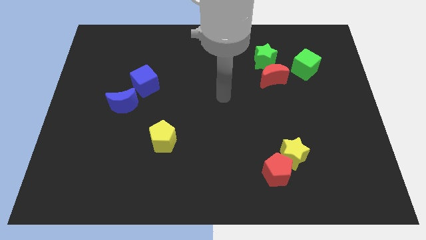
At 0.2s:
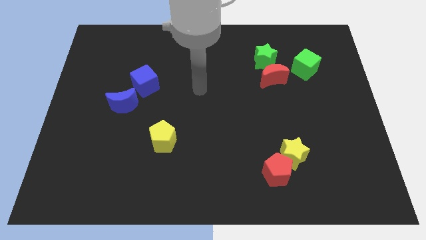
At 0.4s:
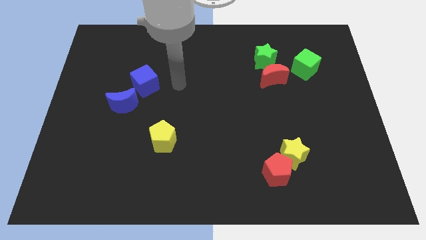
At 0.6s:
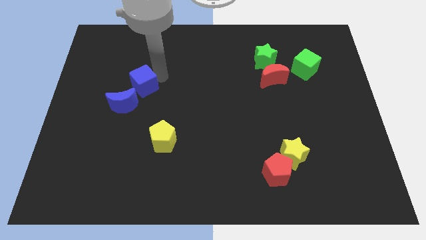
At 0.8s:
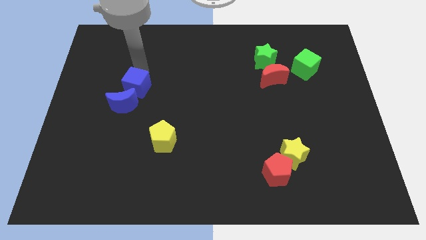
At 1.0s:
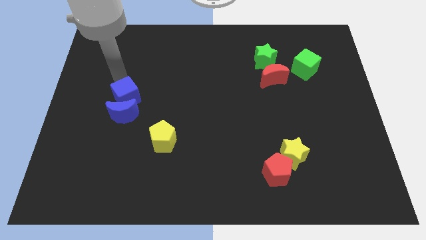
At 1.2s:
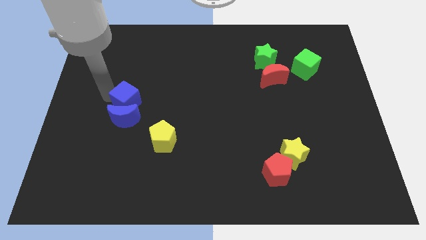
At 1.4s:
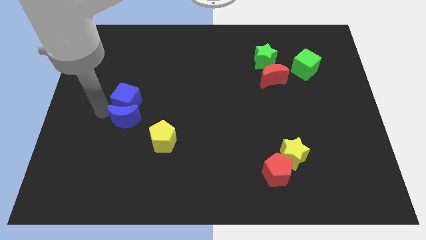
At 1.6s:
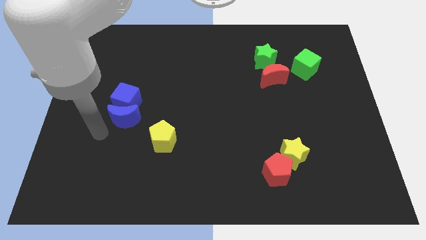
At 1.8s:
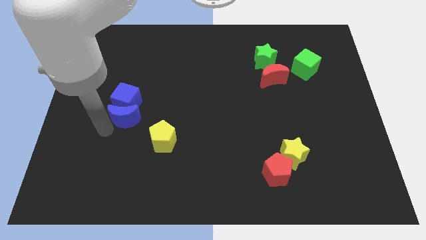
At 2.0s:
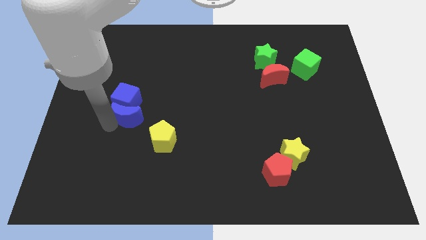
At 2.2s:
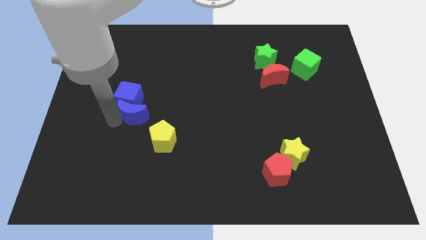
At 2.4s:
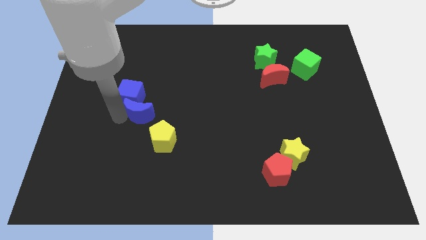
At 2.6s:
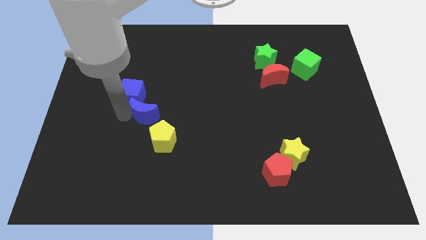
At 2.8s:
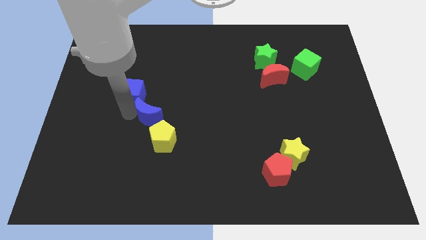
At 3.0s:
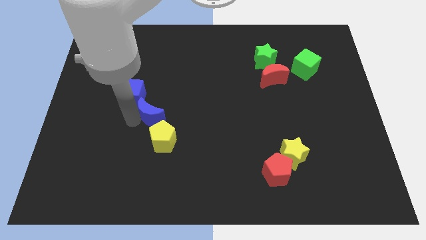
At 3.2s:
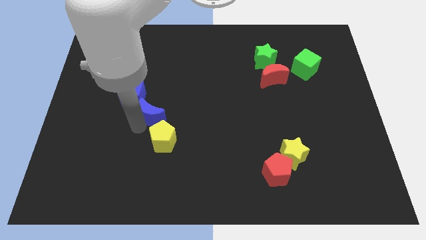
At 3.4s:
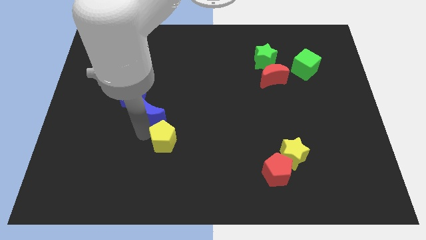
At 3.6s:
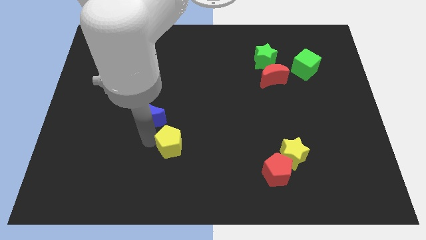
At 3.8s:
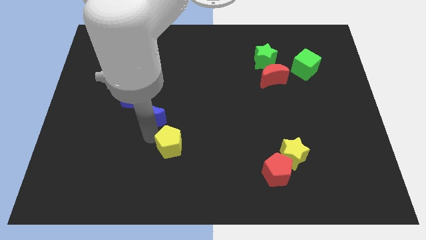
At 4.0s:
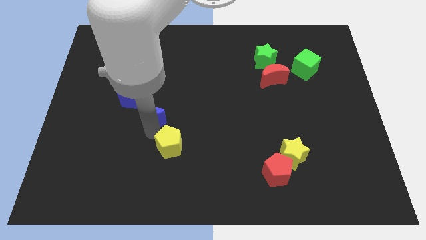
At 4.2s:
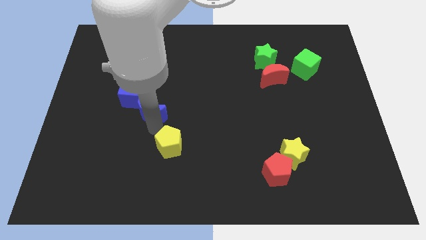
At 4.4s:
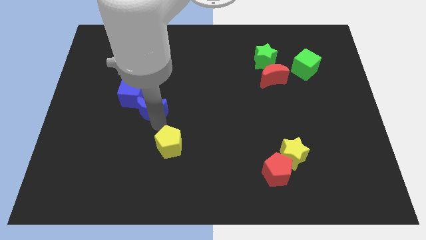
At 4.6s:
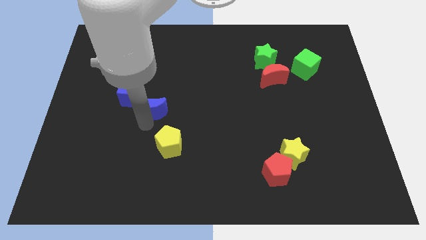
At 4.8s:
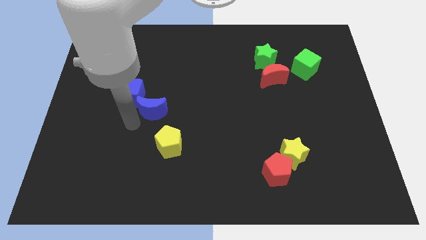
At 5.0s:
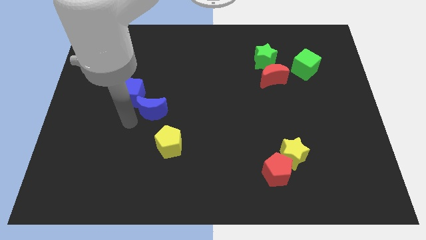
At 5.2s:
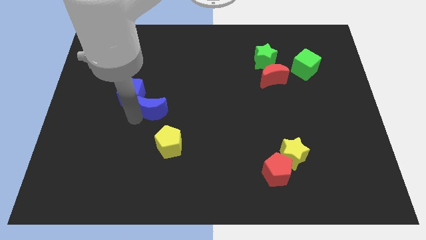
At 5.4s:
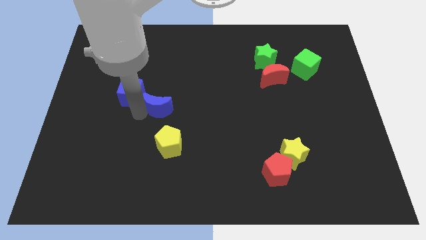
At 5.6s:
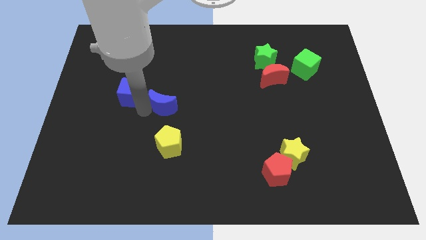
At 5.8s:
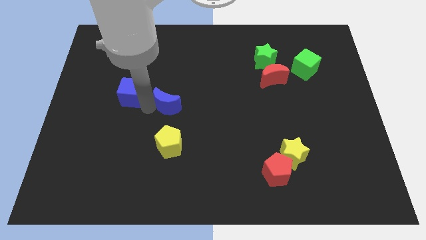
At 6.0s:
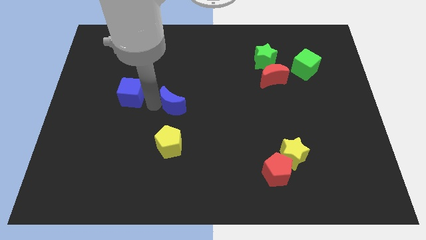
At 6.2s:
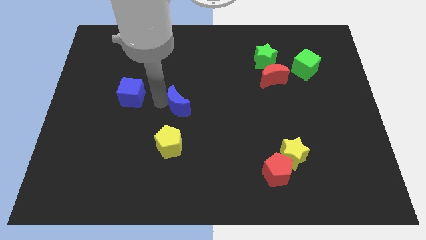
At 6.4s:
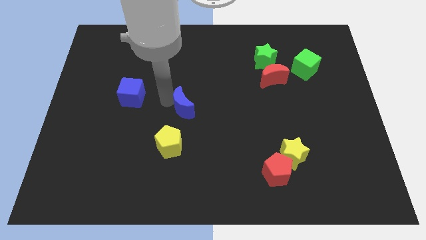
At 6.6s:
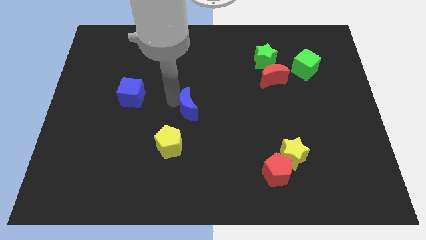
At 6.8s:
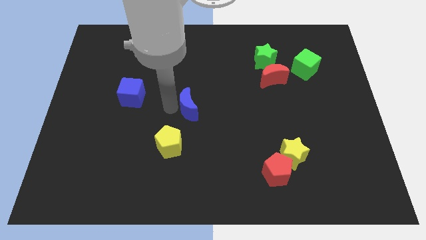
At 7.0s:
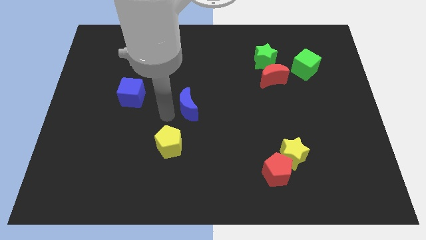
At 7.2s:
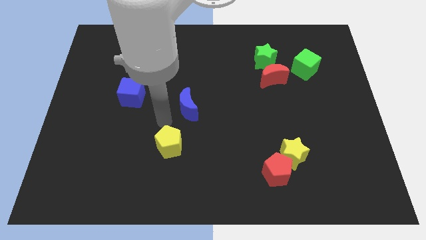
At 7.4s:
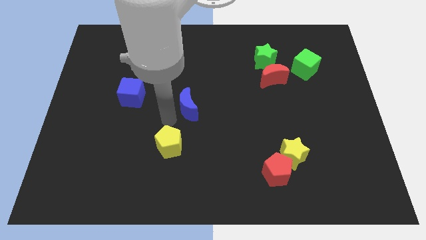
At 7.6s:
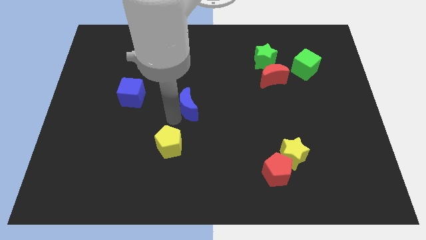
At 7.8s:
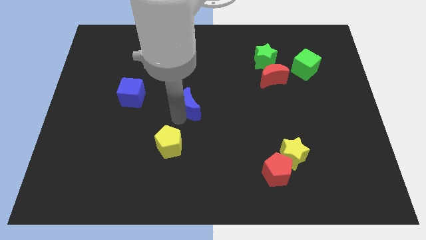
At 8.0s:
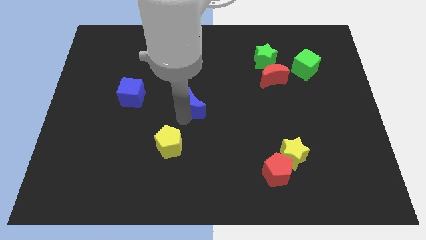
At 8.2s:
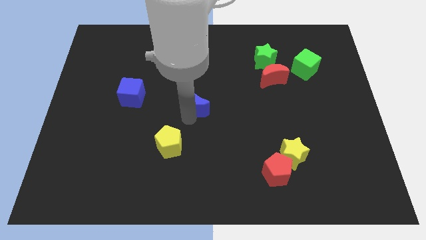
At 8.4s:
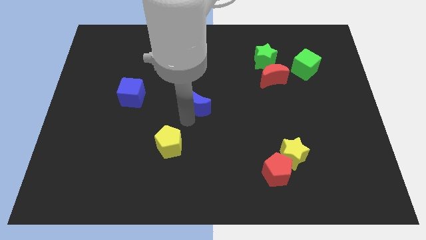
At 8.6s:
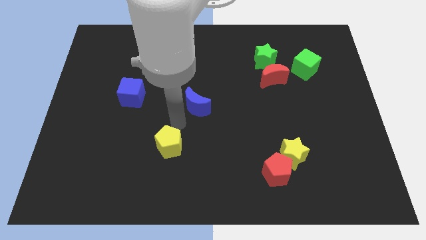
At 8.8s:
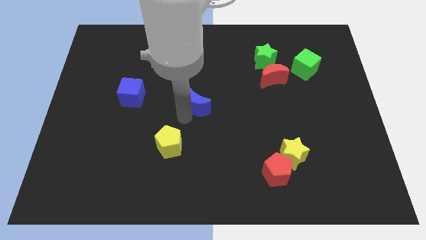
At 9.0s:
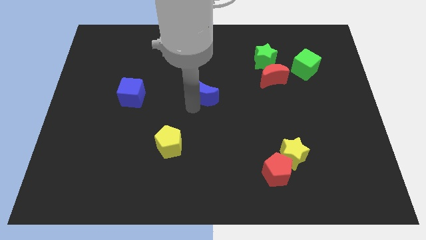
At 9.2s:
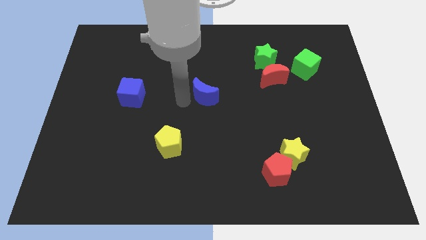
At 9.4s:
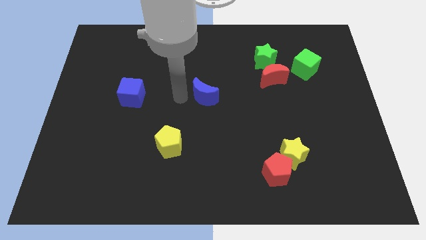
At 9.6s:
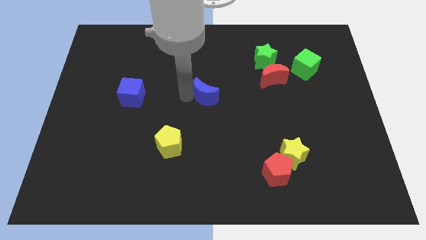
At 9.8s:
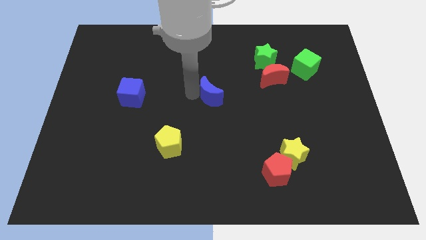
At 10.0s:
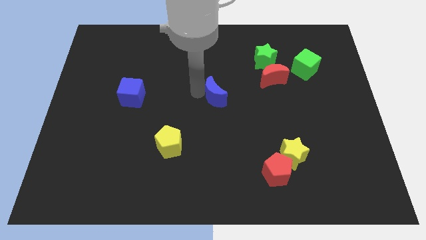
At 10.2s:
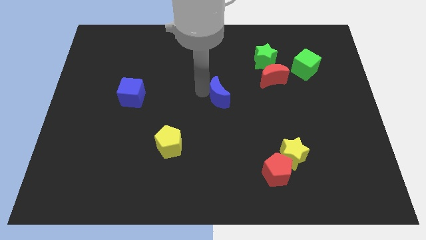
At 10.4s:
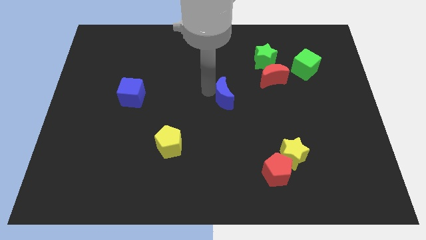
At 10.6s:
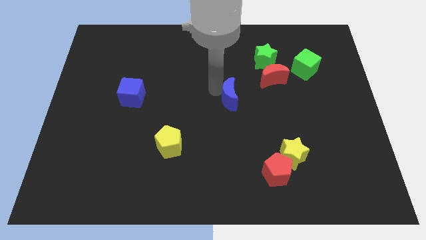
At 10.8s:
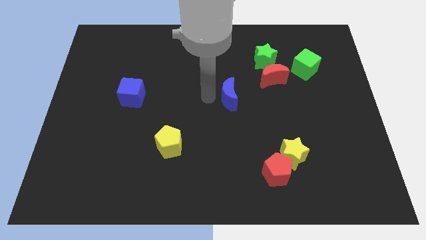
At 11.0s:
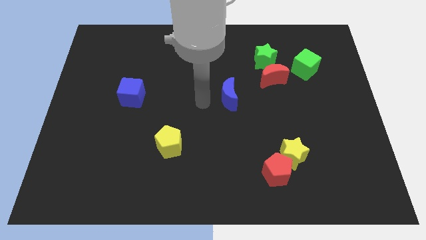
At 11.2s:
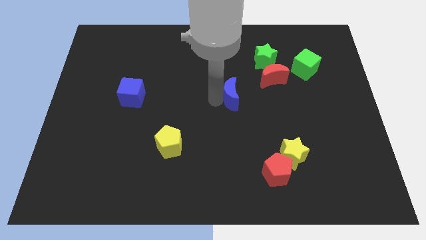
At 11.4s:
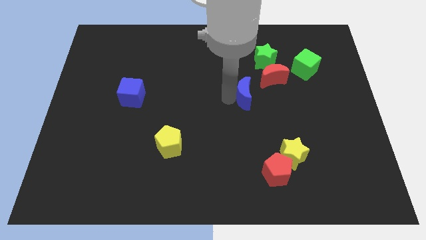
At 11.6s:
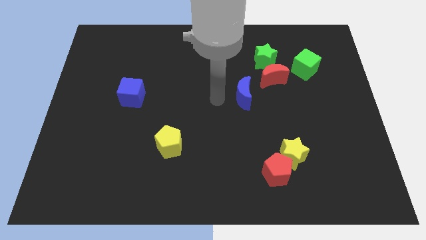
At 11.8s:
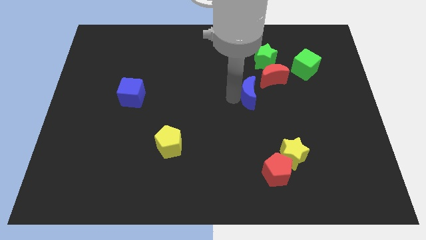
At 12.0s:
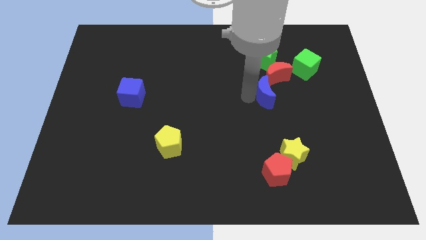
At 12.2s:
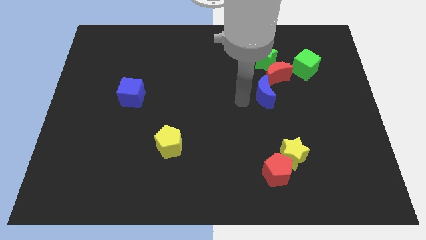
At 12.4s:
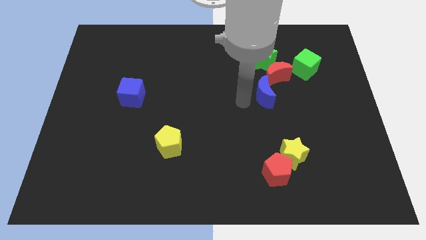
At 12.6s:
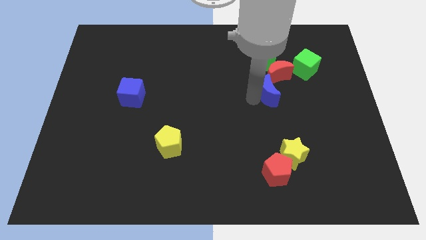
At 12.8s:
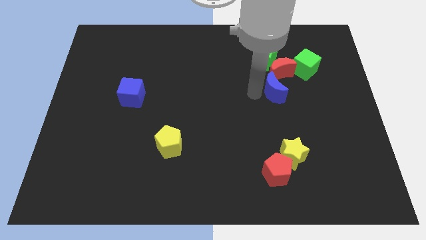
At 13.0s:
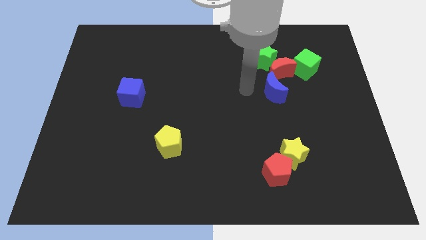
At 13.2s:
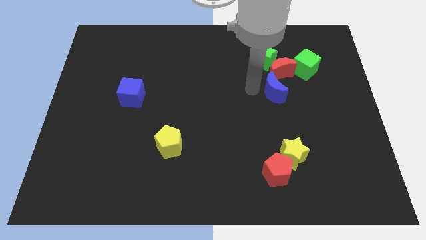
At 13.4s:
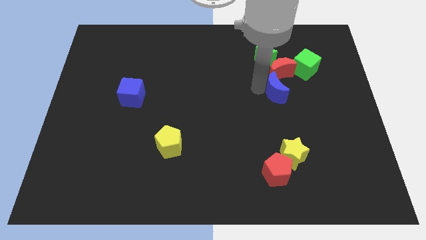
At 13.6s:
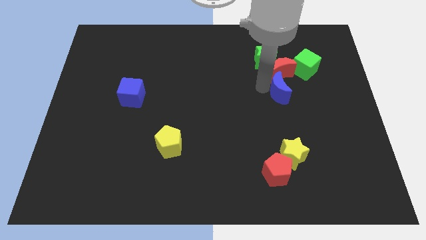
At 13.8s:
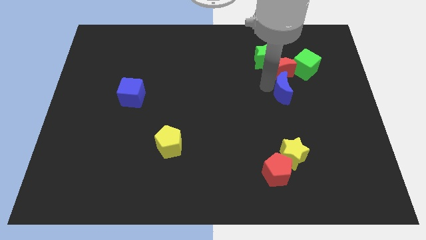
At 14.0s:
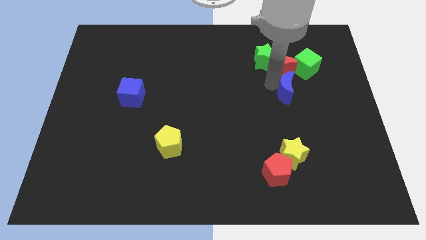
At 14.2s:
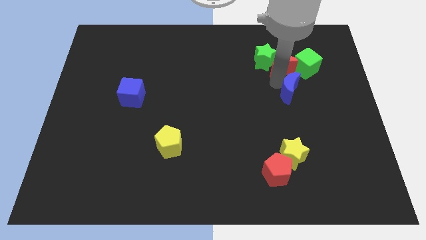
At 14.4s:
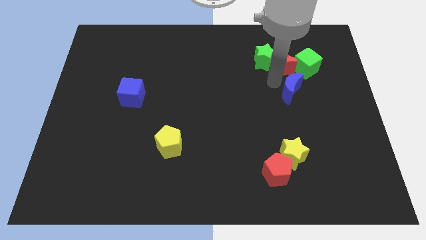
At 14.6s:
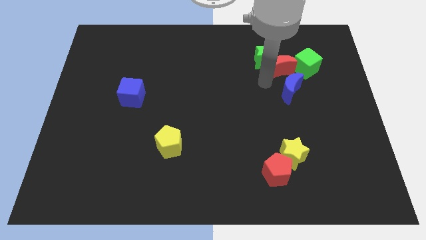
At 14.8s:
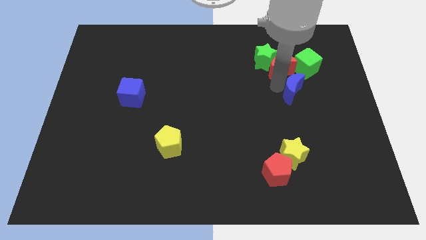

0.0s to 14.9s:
push the blue moon to the bottom of the green cube
